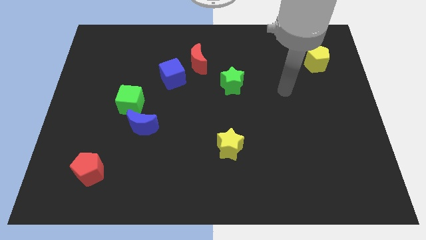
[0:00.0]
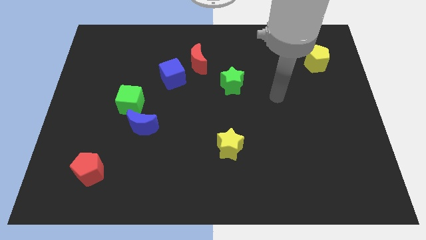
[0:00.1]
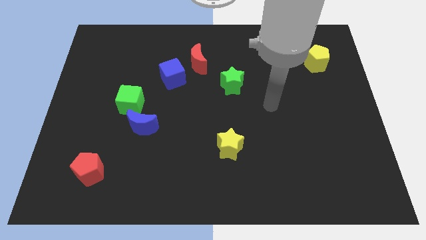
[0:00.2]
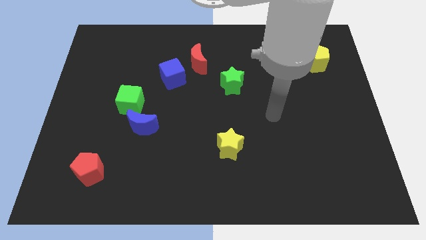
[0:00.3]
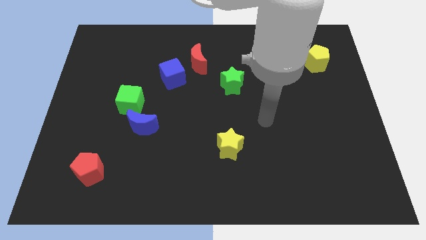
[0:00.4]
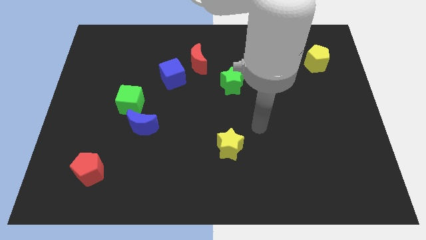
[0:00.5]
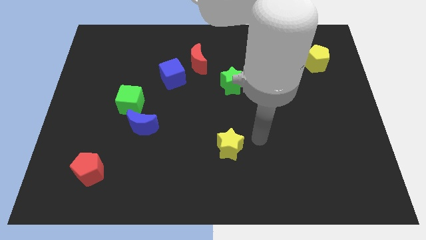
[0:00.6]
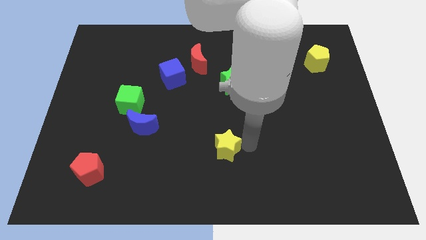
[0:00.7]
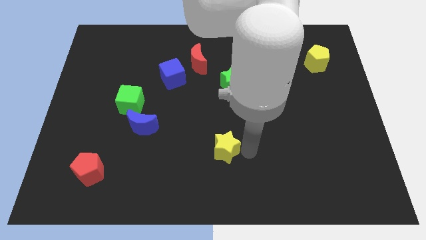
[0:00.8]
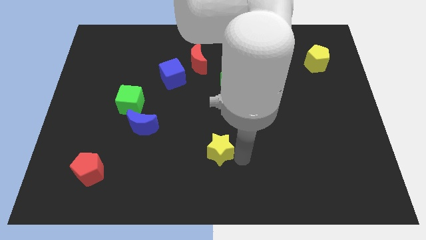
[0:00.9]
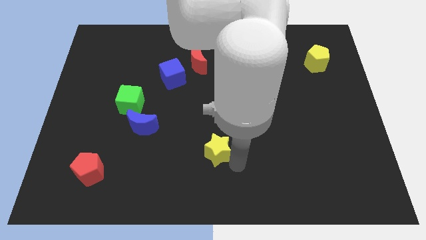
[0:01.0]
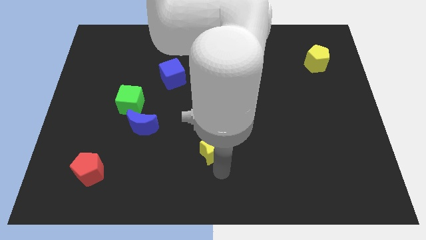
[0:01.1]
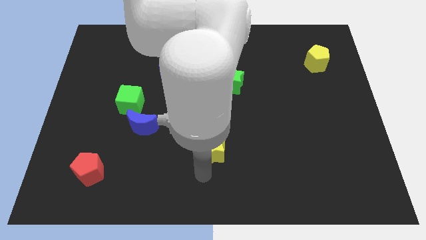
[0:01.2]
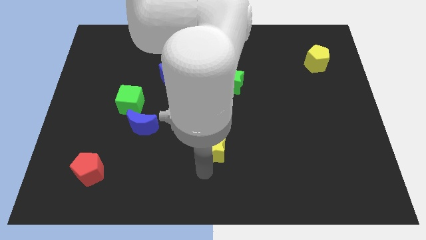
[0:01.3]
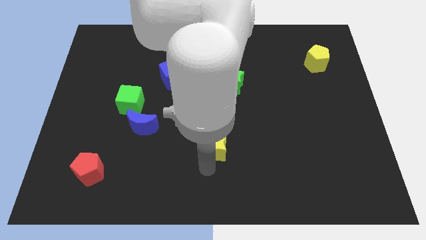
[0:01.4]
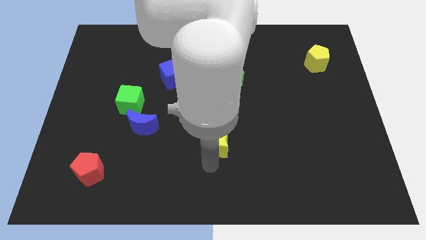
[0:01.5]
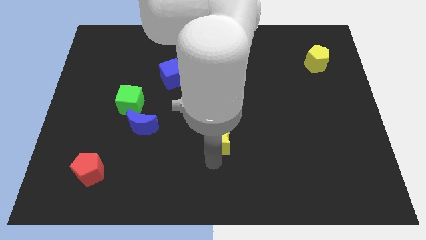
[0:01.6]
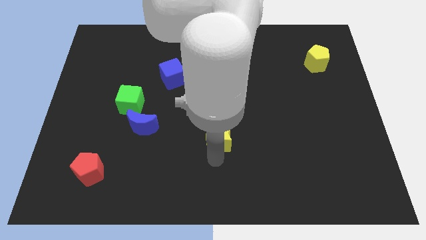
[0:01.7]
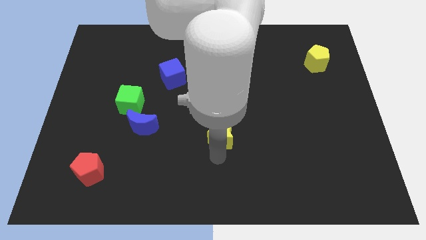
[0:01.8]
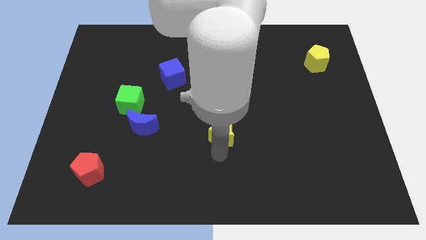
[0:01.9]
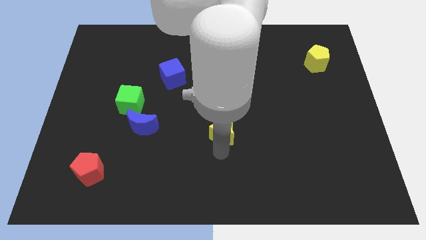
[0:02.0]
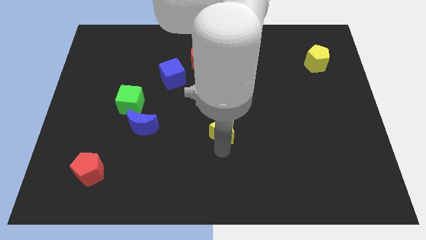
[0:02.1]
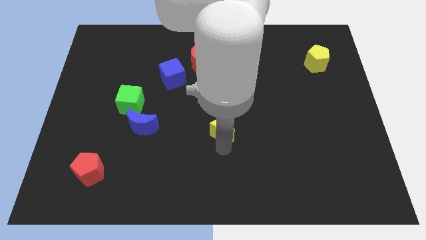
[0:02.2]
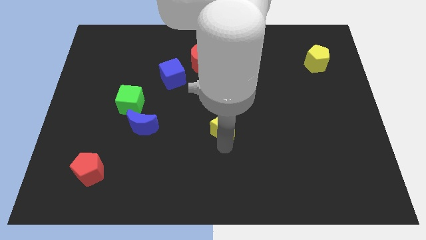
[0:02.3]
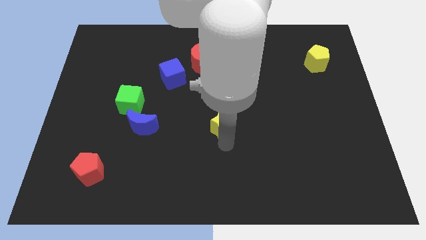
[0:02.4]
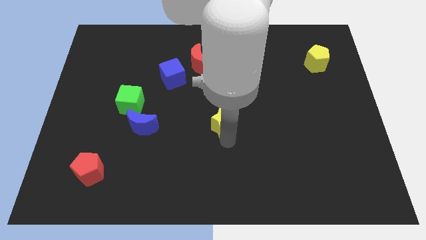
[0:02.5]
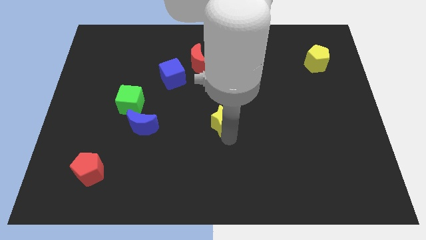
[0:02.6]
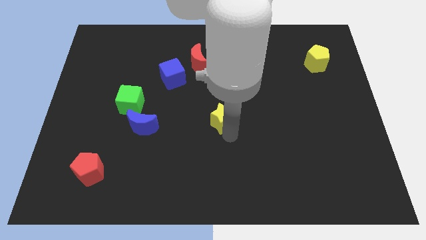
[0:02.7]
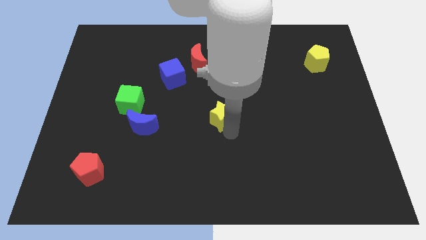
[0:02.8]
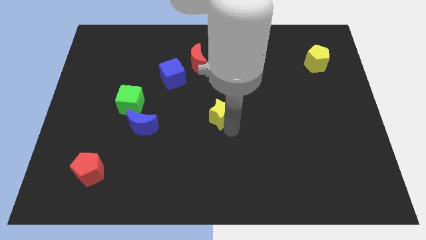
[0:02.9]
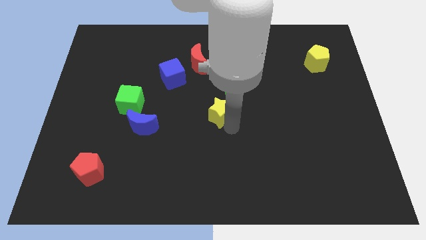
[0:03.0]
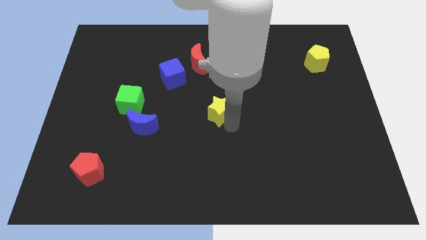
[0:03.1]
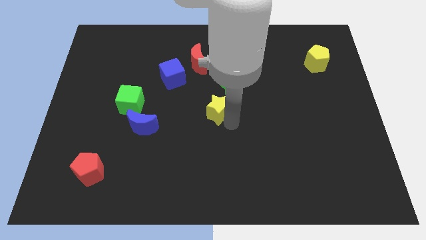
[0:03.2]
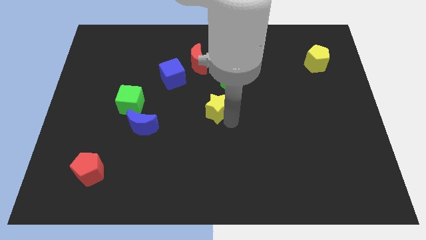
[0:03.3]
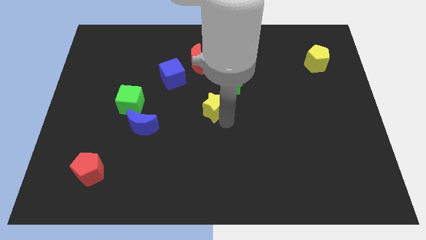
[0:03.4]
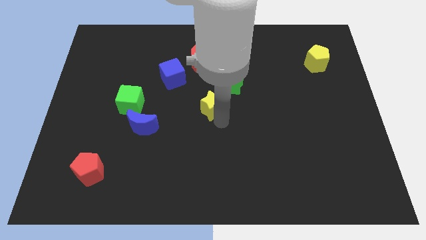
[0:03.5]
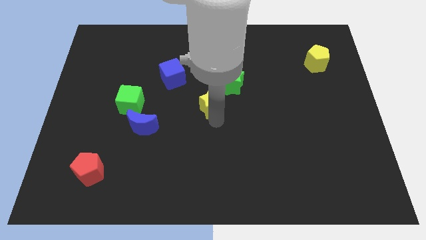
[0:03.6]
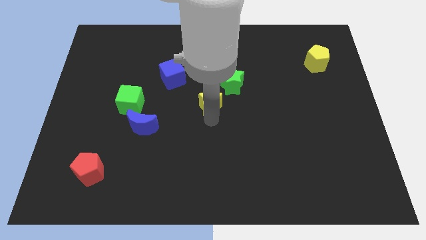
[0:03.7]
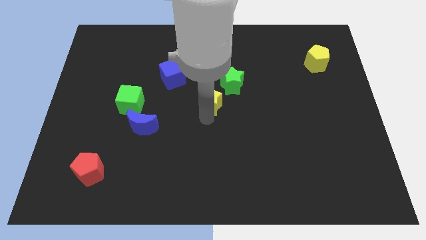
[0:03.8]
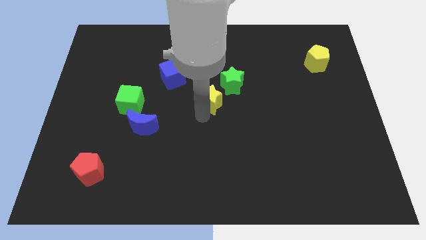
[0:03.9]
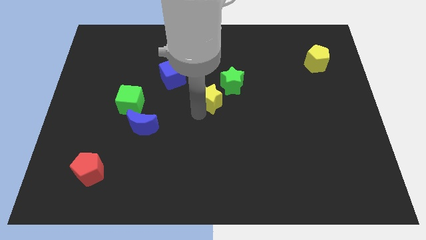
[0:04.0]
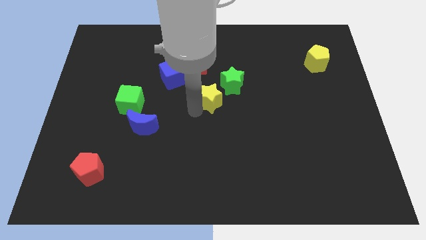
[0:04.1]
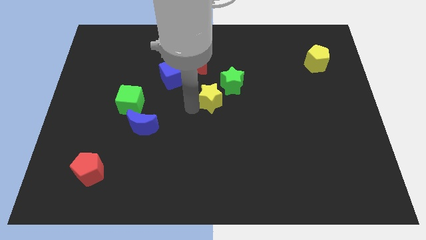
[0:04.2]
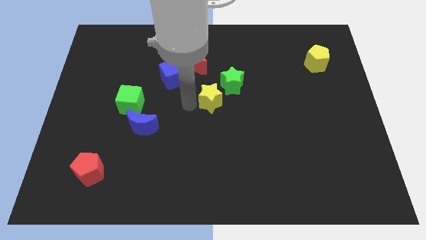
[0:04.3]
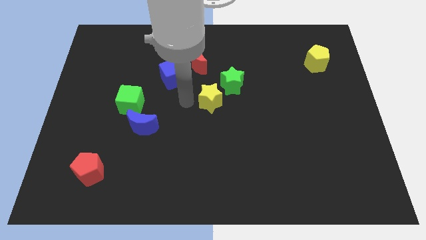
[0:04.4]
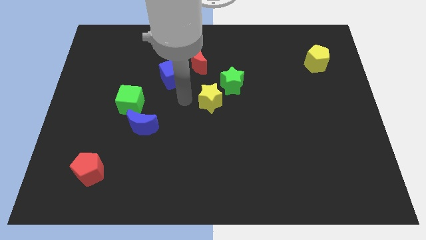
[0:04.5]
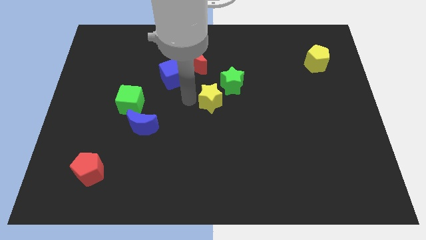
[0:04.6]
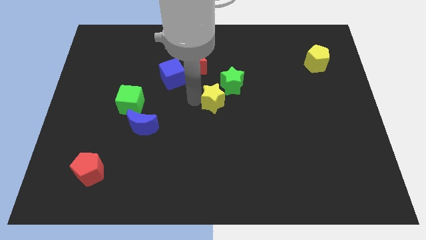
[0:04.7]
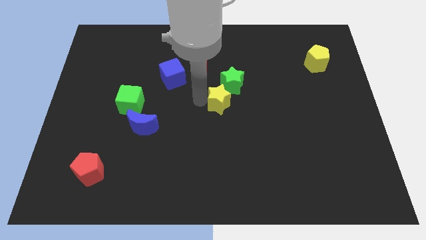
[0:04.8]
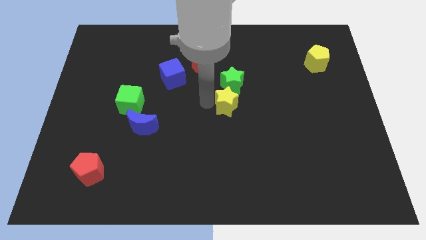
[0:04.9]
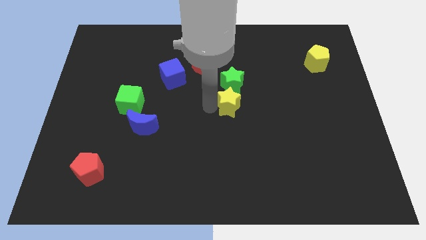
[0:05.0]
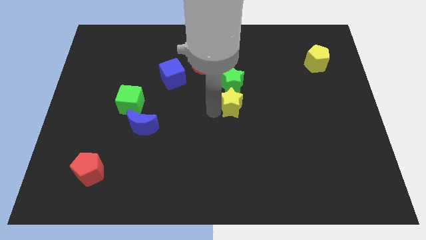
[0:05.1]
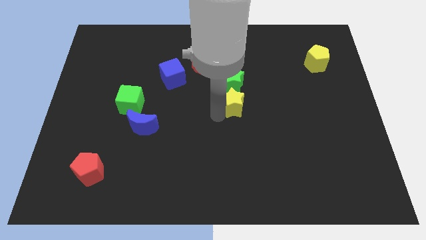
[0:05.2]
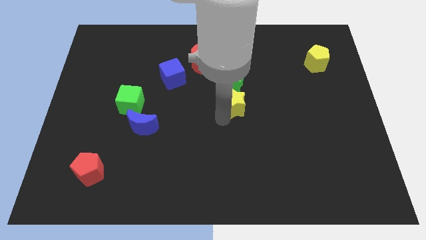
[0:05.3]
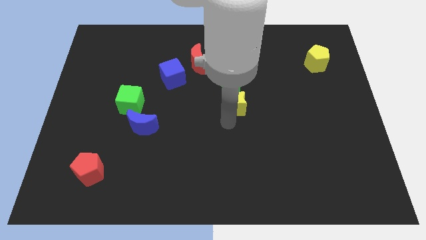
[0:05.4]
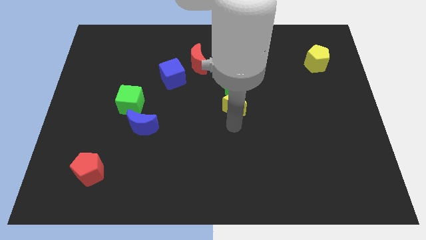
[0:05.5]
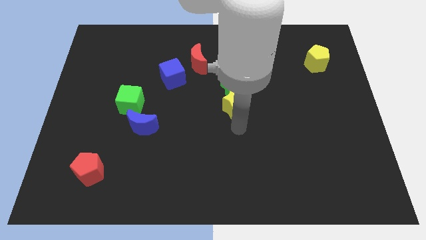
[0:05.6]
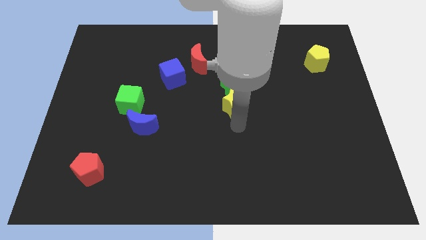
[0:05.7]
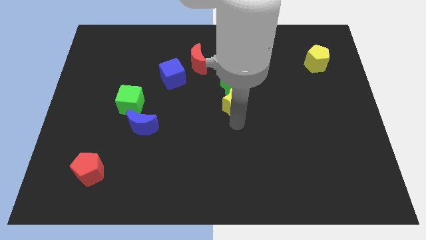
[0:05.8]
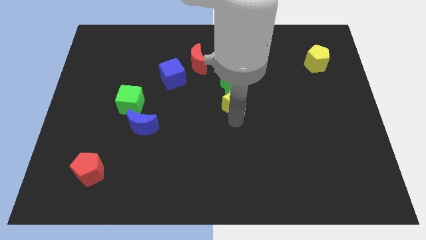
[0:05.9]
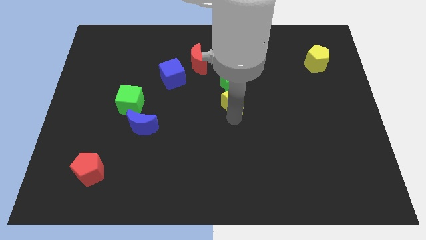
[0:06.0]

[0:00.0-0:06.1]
push the yellow star next to the green star

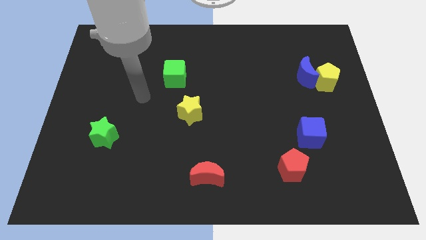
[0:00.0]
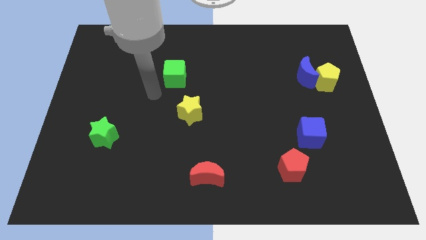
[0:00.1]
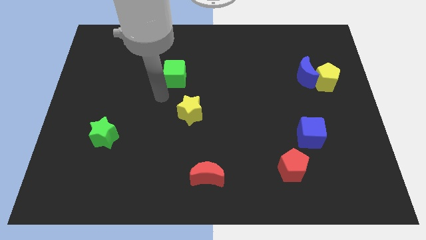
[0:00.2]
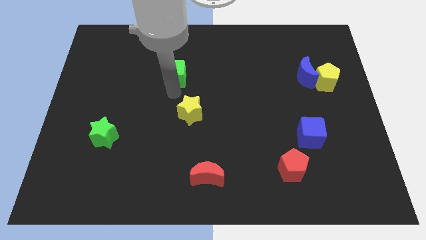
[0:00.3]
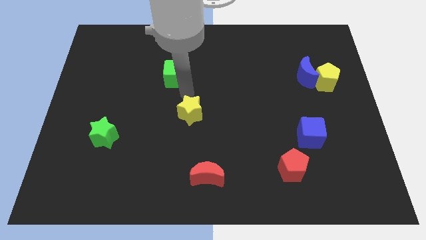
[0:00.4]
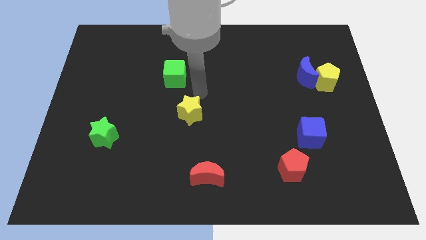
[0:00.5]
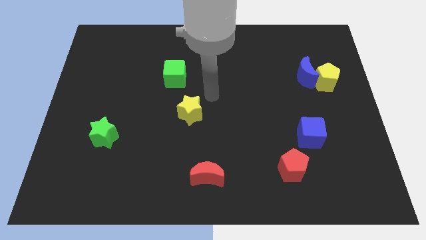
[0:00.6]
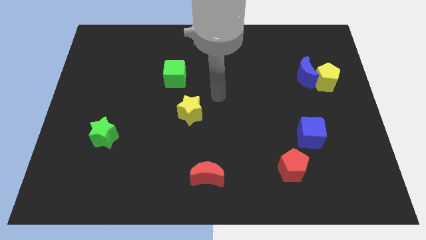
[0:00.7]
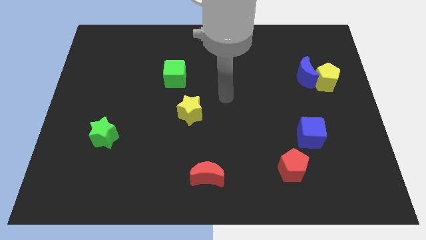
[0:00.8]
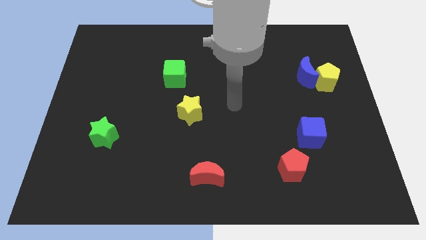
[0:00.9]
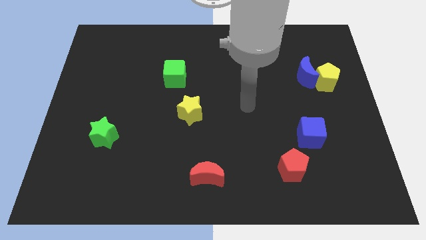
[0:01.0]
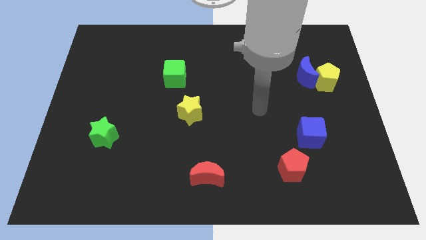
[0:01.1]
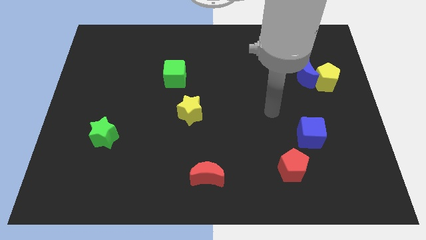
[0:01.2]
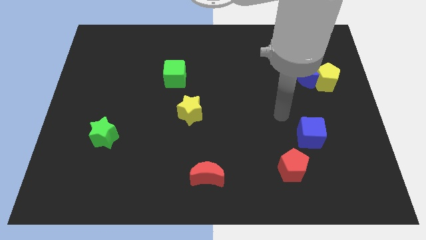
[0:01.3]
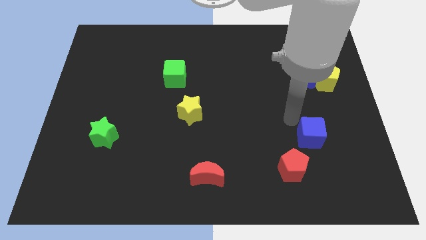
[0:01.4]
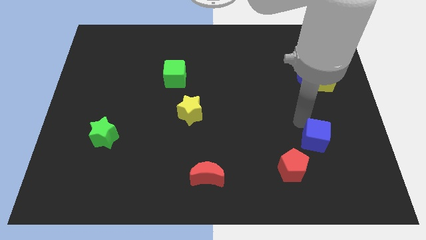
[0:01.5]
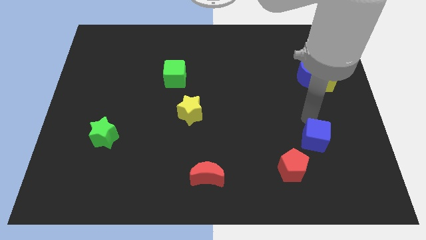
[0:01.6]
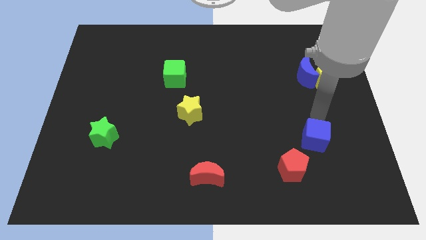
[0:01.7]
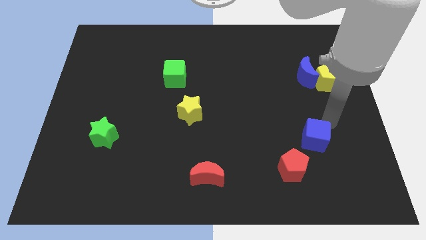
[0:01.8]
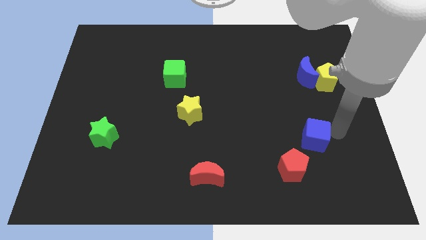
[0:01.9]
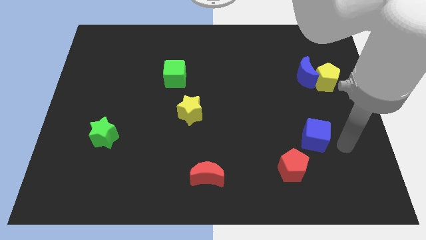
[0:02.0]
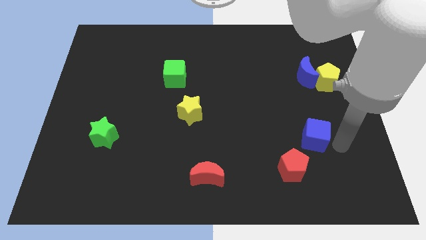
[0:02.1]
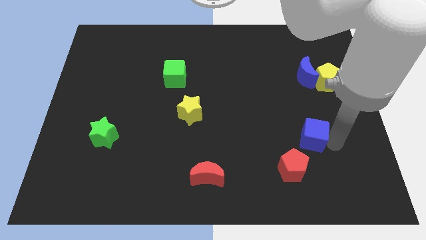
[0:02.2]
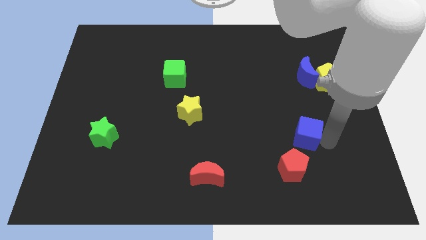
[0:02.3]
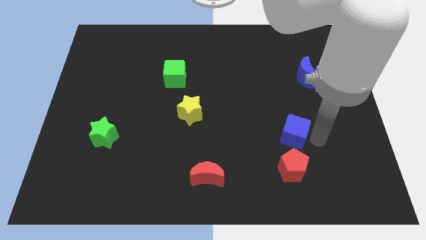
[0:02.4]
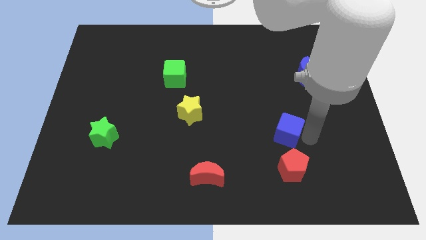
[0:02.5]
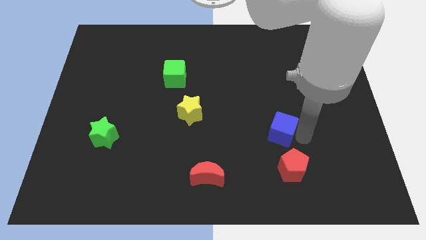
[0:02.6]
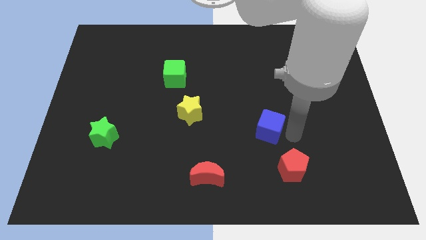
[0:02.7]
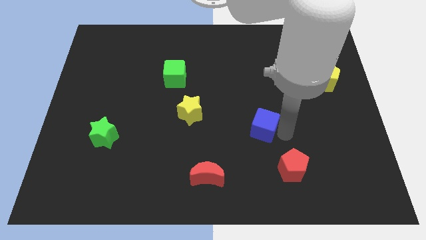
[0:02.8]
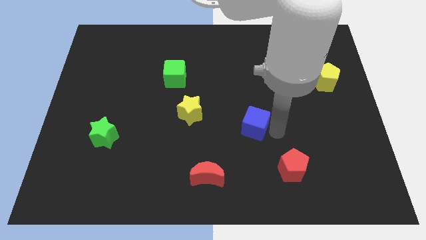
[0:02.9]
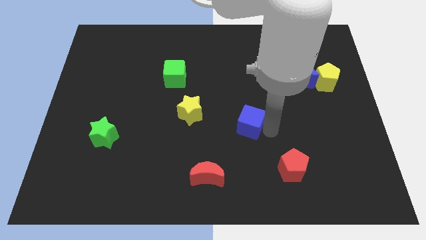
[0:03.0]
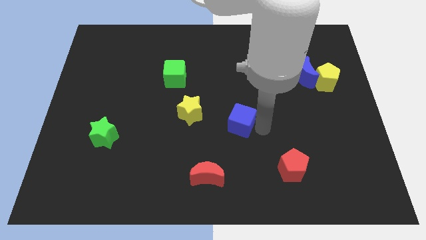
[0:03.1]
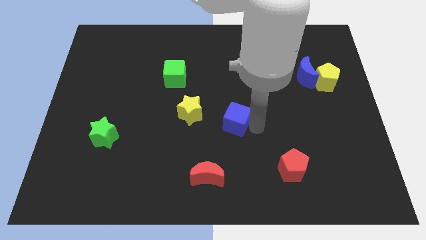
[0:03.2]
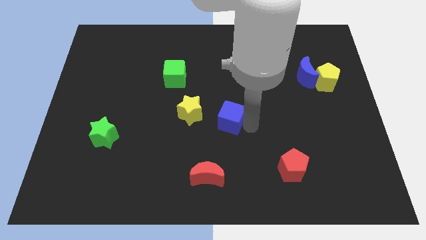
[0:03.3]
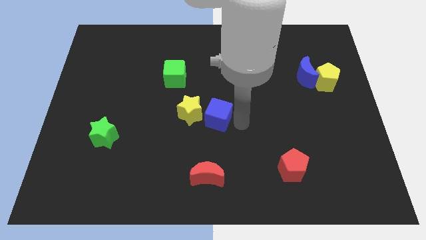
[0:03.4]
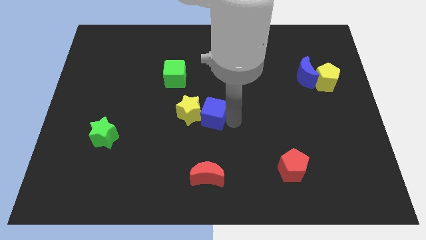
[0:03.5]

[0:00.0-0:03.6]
slide the blue cube close to the yellow star
